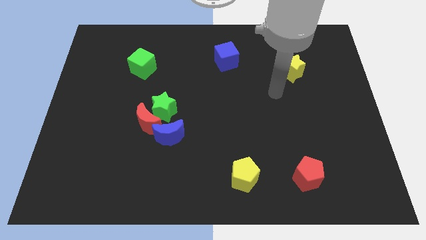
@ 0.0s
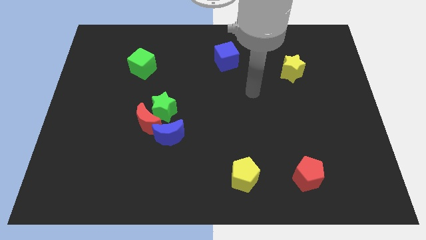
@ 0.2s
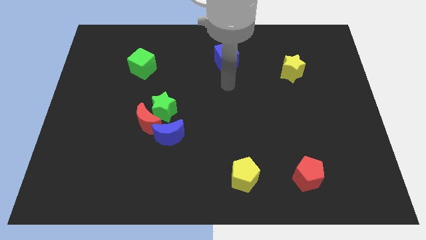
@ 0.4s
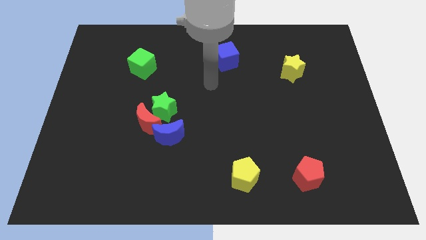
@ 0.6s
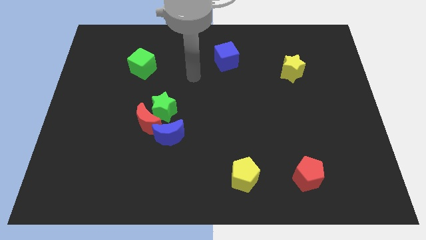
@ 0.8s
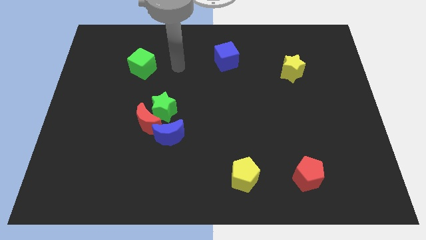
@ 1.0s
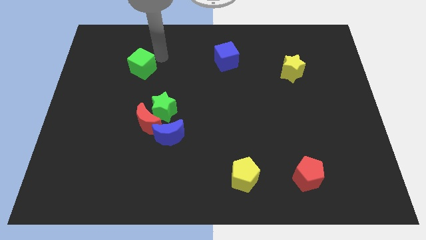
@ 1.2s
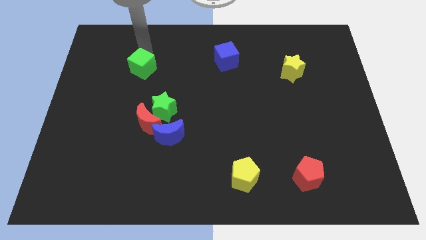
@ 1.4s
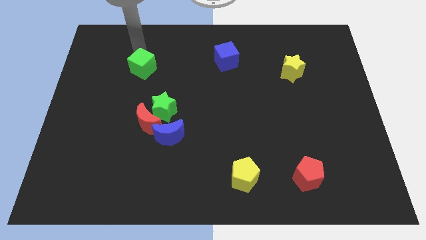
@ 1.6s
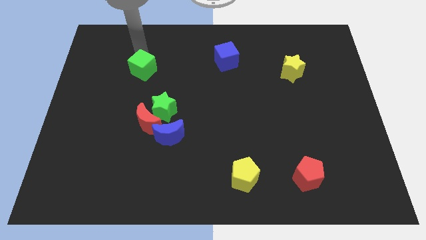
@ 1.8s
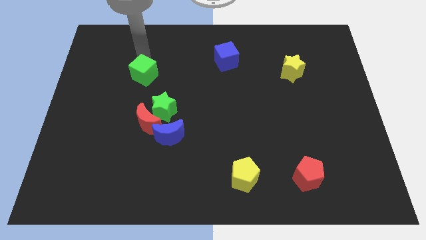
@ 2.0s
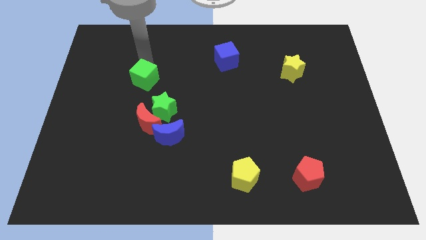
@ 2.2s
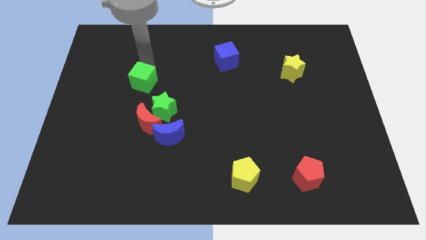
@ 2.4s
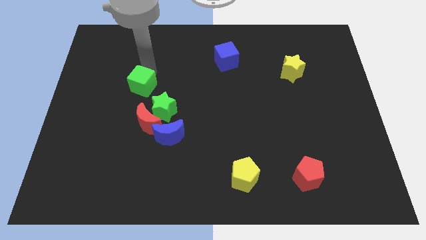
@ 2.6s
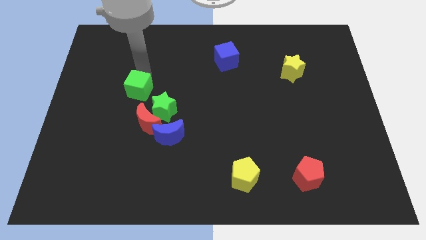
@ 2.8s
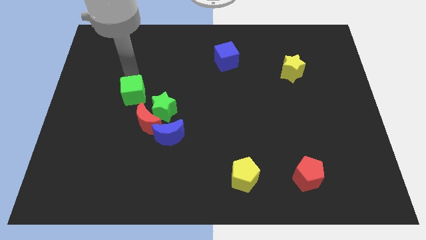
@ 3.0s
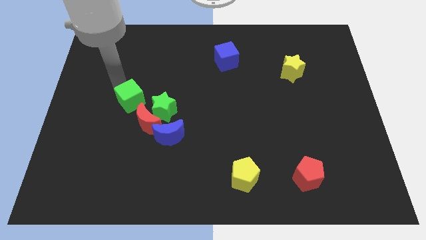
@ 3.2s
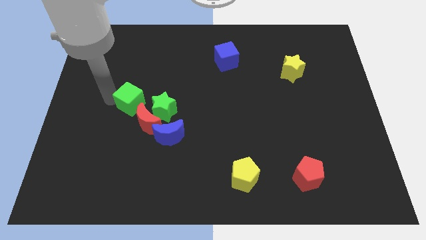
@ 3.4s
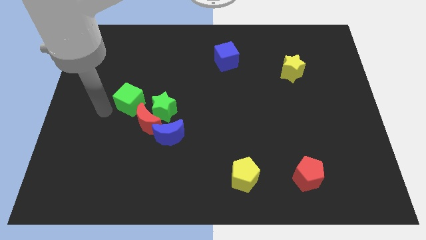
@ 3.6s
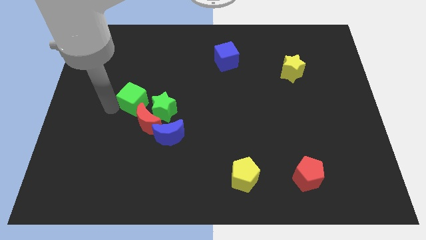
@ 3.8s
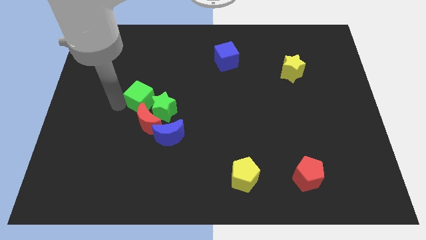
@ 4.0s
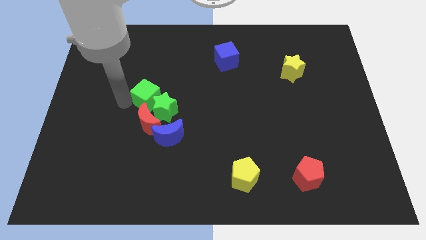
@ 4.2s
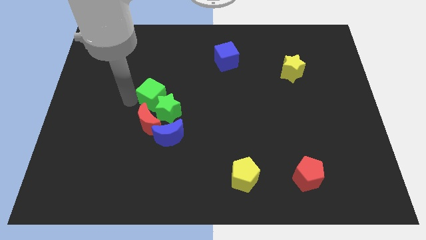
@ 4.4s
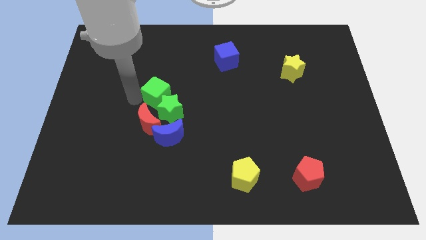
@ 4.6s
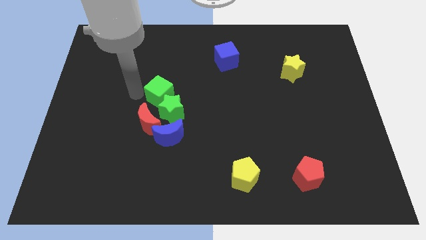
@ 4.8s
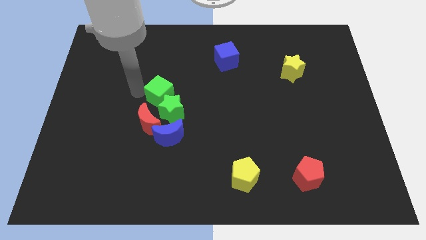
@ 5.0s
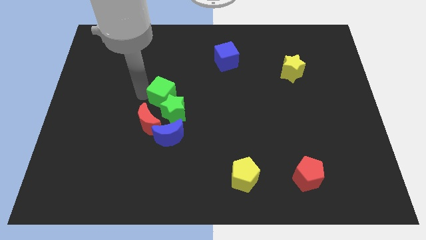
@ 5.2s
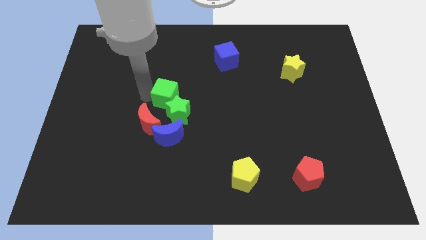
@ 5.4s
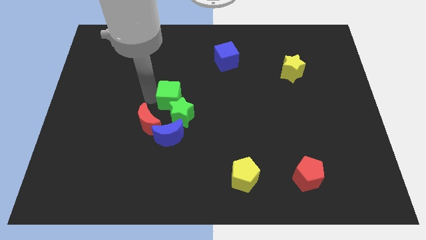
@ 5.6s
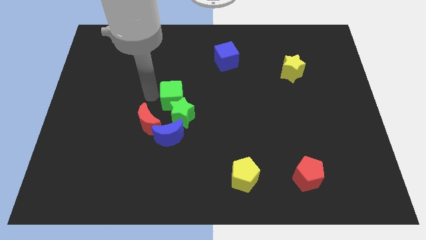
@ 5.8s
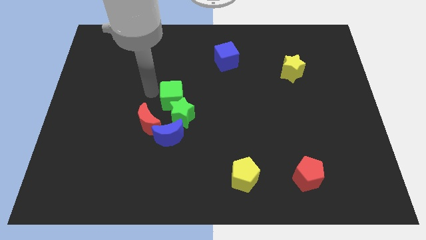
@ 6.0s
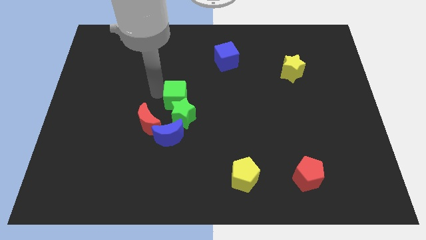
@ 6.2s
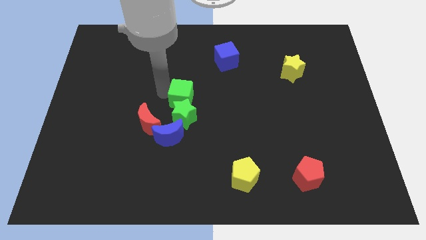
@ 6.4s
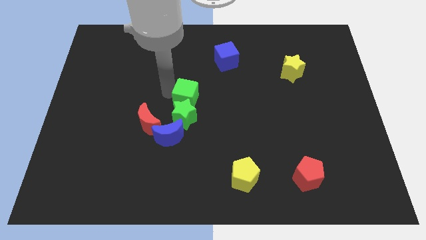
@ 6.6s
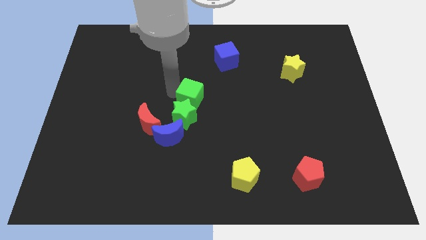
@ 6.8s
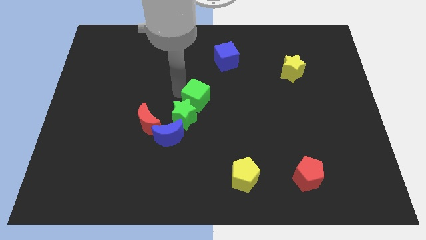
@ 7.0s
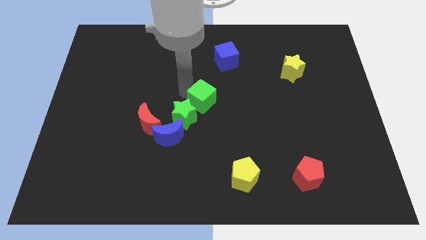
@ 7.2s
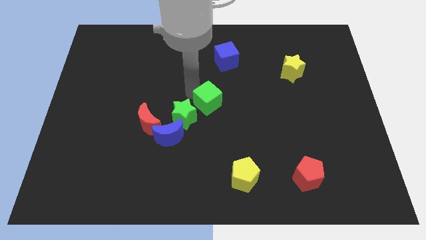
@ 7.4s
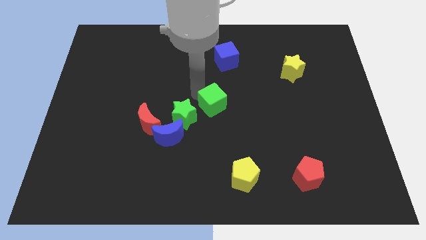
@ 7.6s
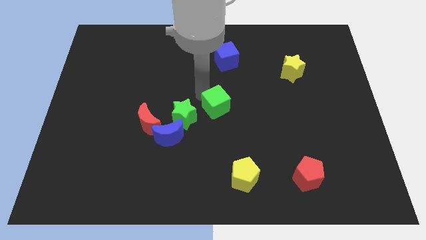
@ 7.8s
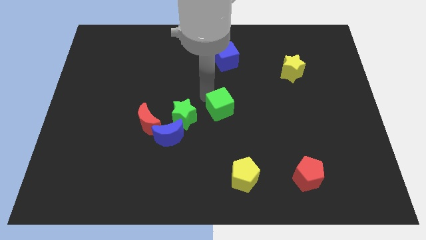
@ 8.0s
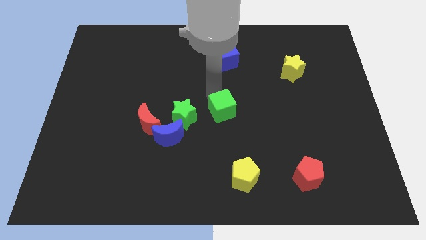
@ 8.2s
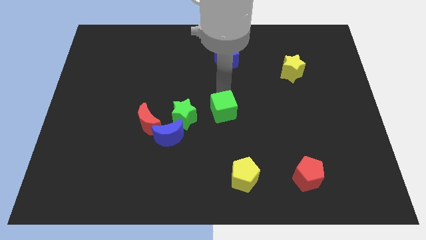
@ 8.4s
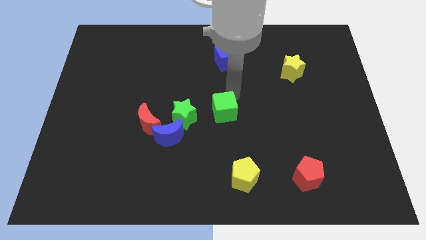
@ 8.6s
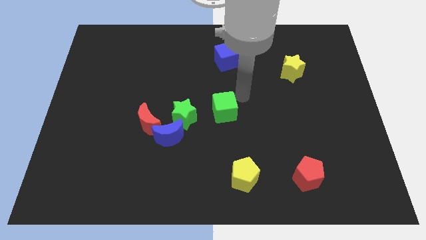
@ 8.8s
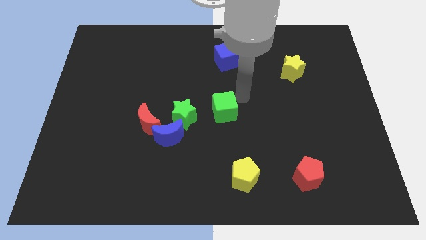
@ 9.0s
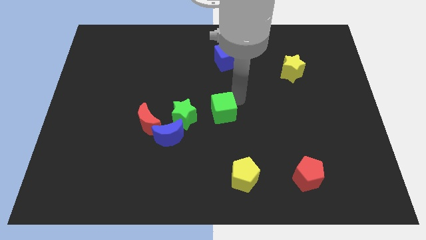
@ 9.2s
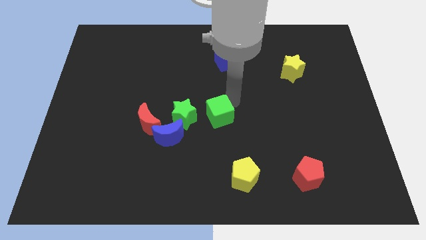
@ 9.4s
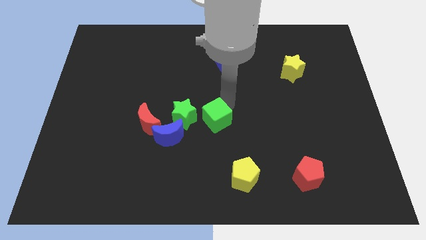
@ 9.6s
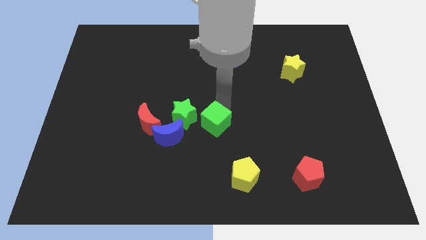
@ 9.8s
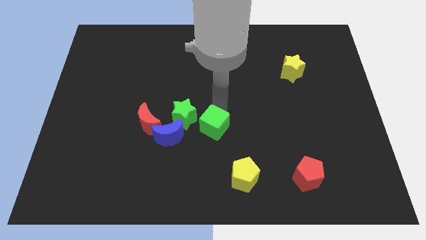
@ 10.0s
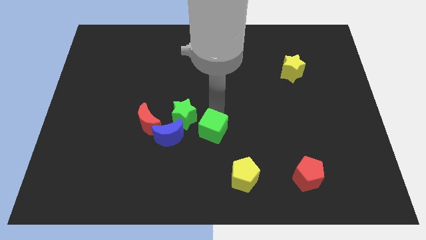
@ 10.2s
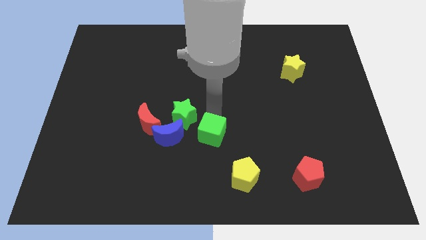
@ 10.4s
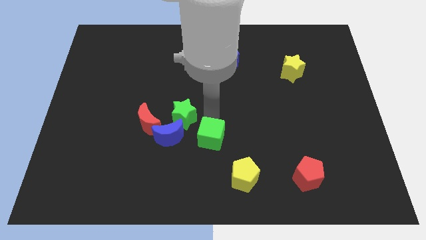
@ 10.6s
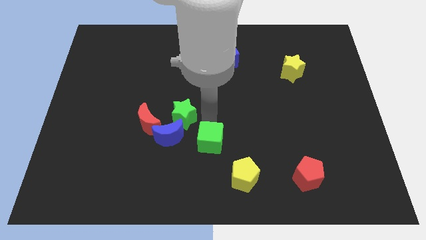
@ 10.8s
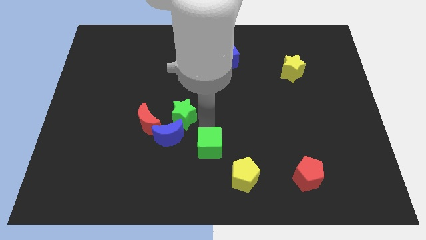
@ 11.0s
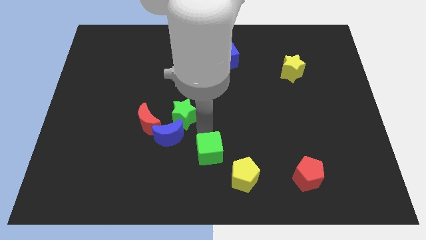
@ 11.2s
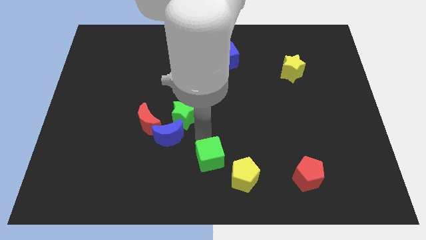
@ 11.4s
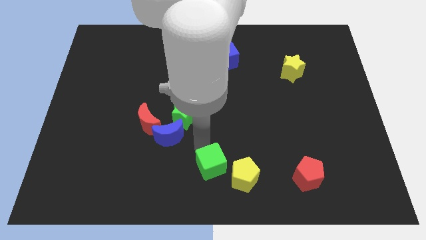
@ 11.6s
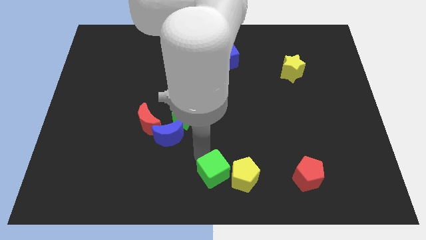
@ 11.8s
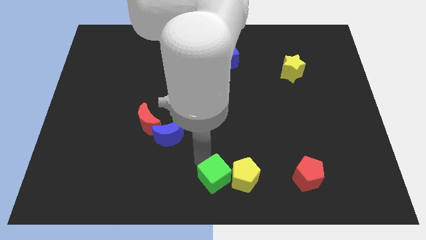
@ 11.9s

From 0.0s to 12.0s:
move the green cube close to the yellow pentagon
